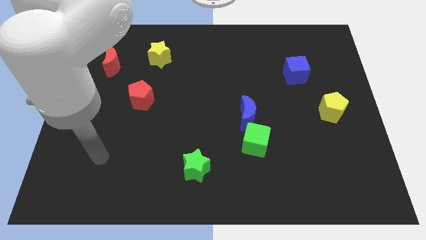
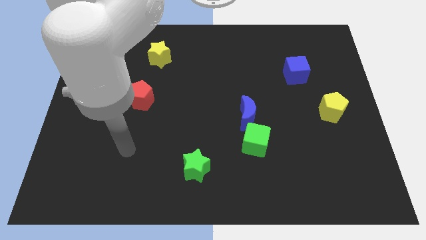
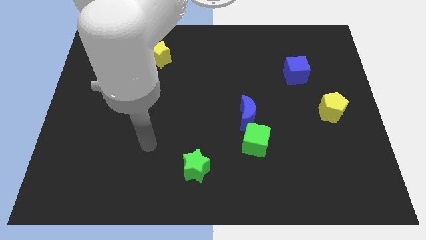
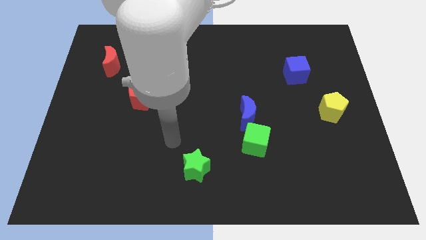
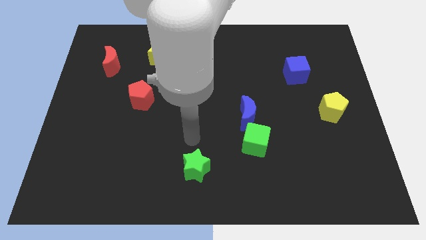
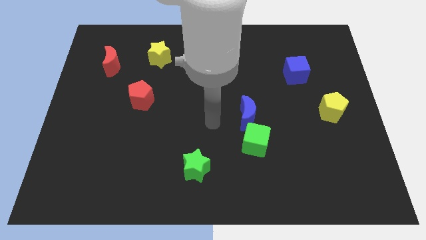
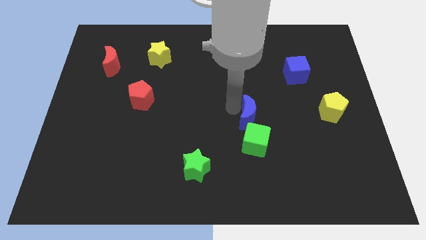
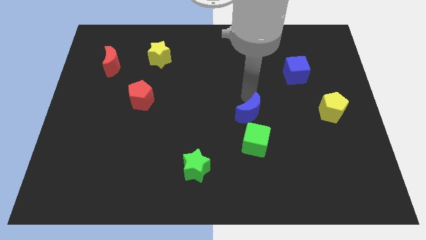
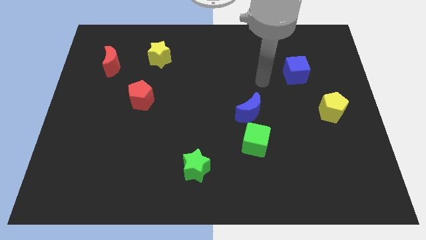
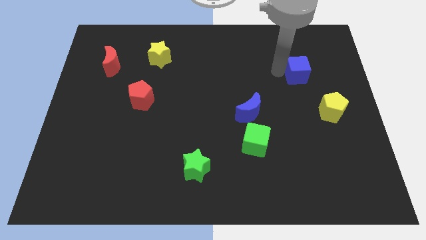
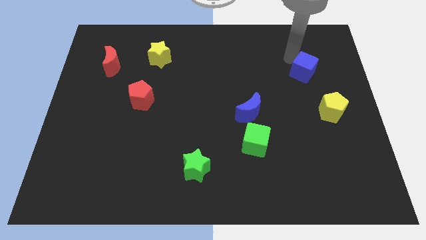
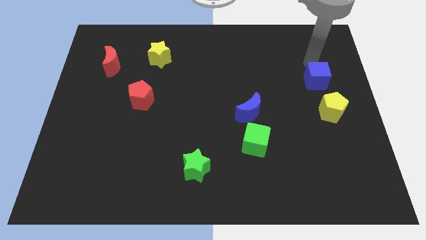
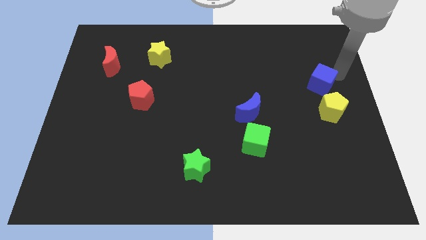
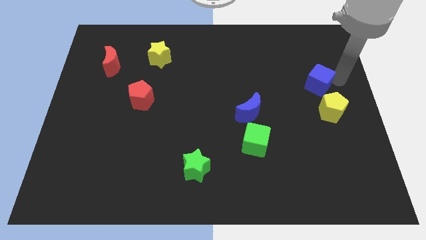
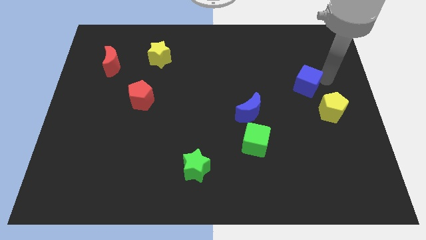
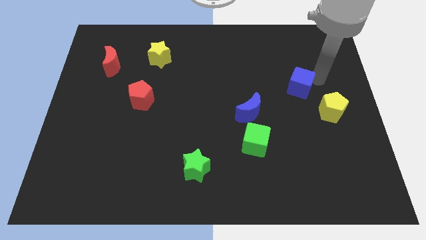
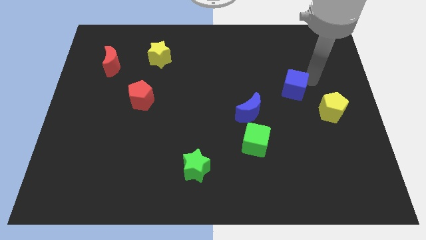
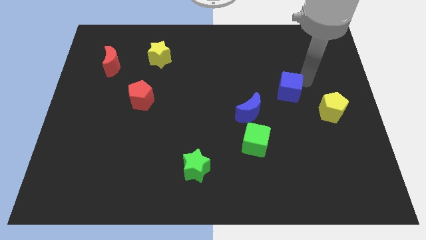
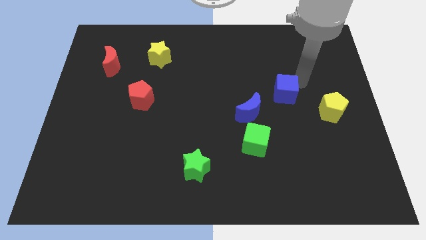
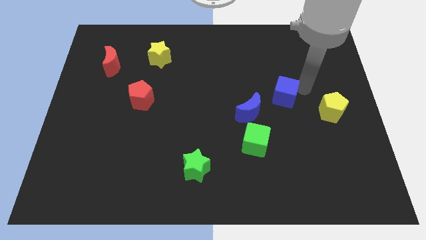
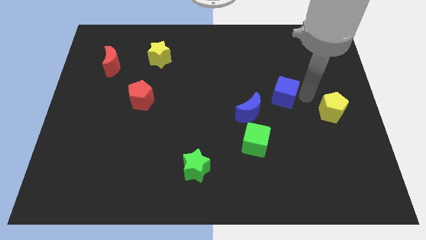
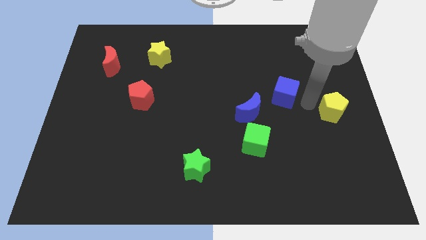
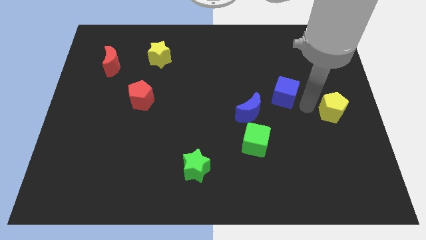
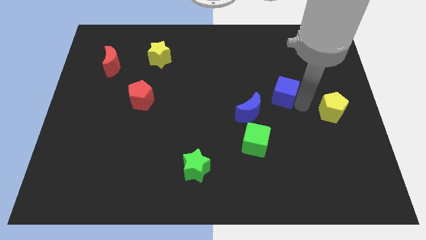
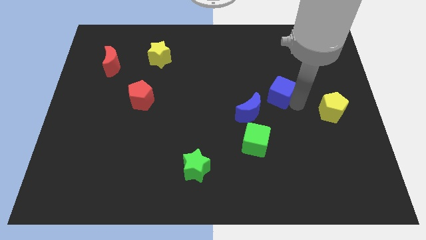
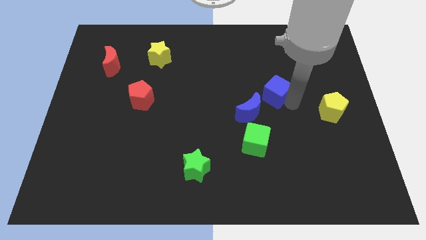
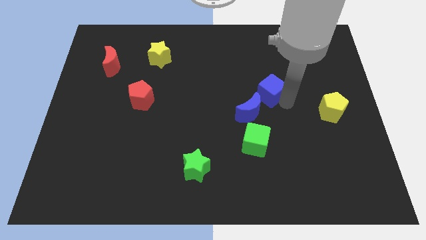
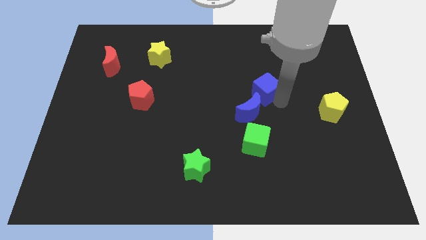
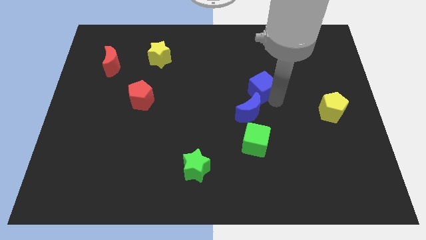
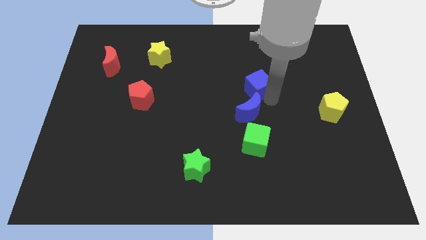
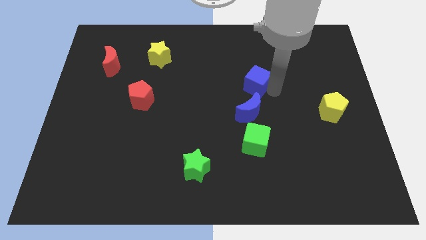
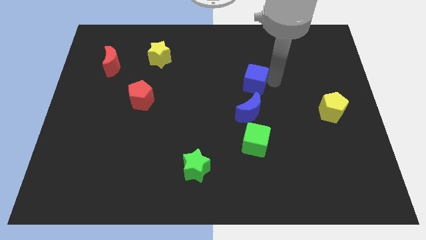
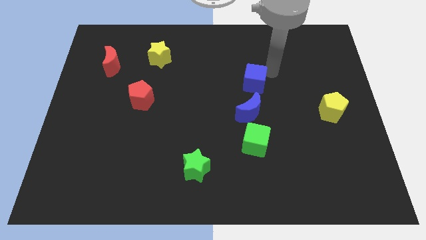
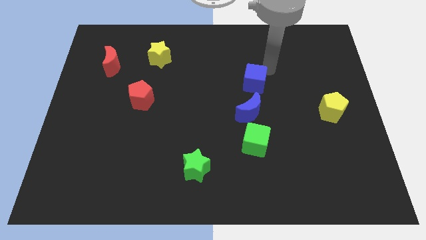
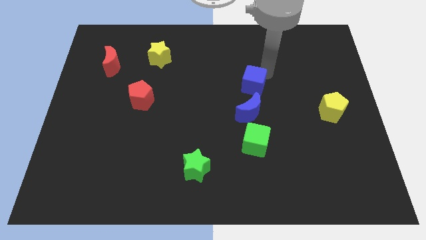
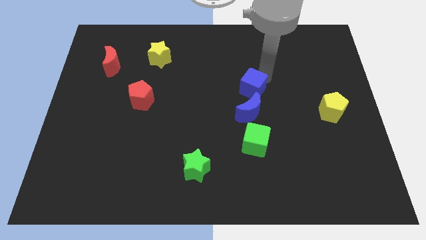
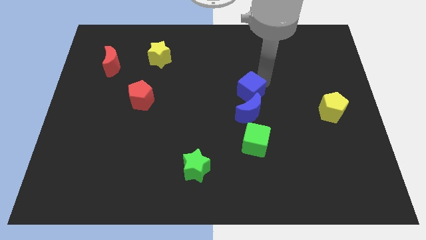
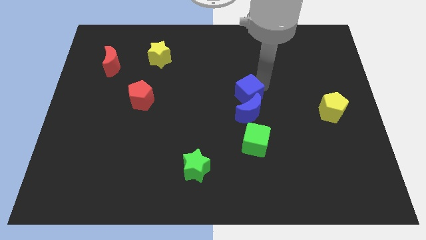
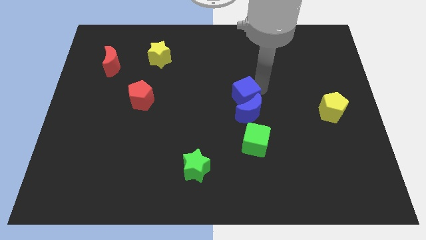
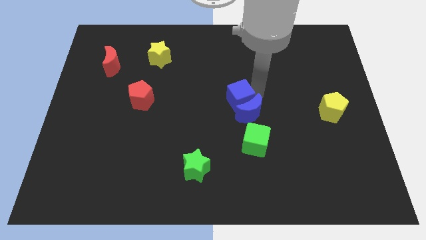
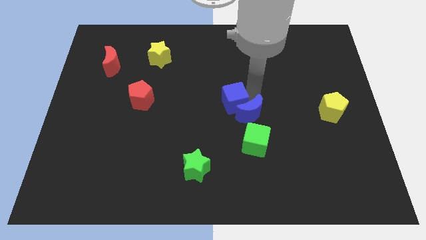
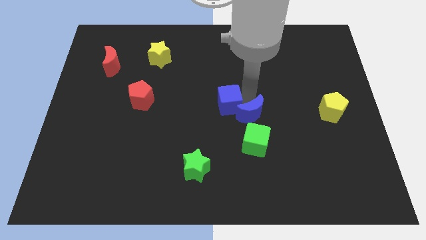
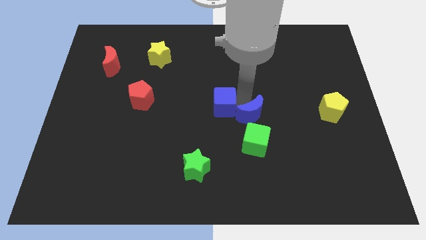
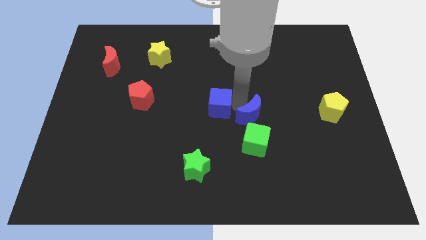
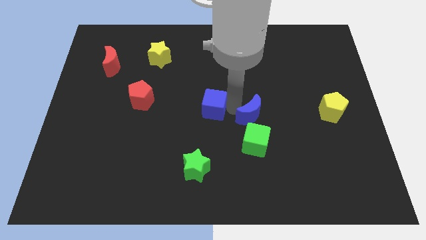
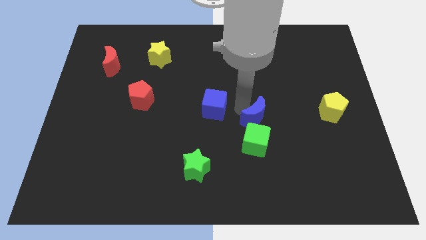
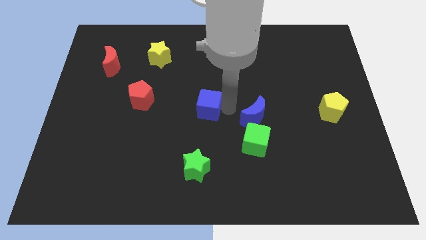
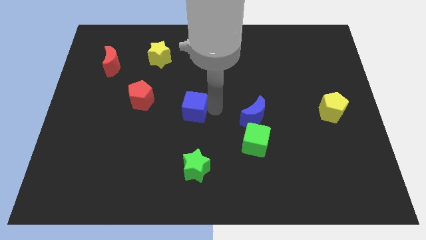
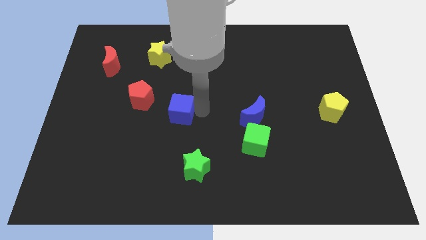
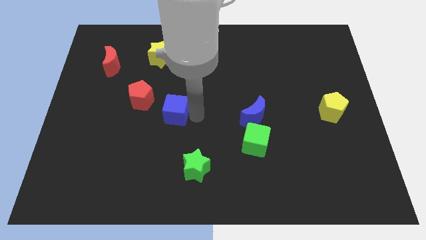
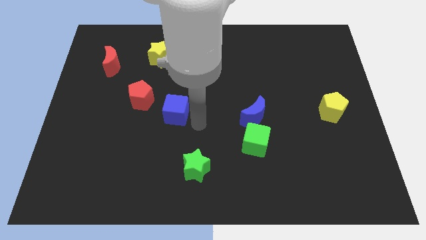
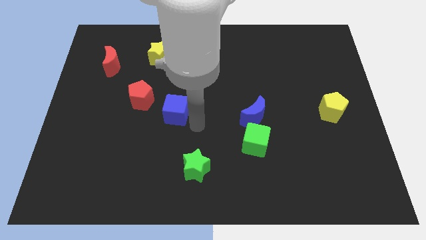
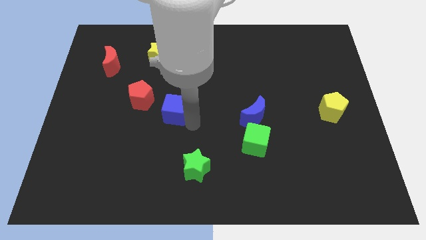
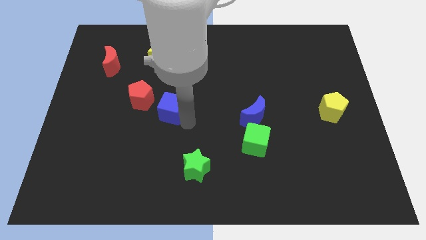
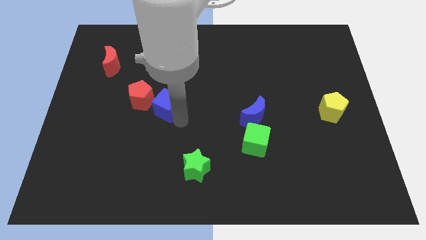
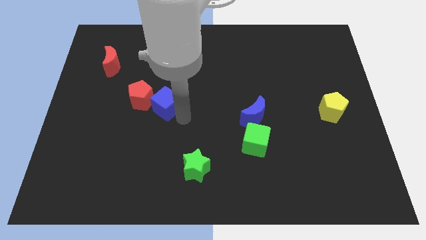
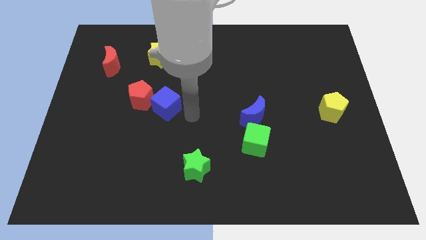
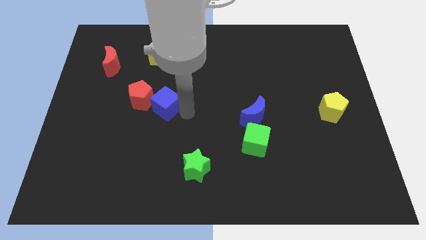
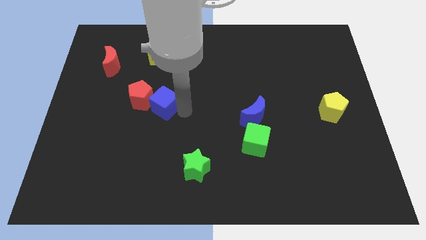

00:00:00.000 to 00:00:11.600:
push the blue cube close to the red pentagon

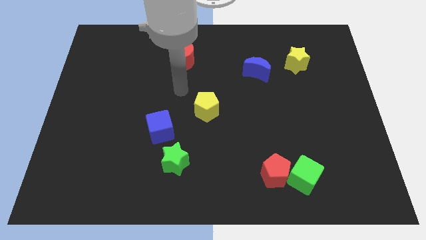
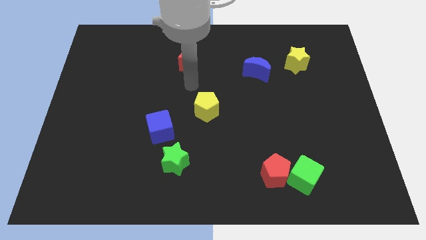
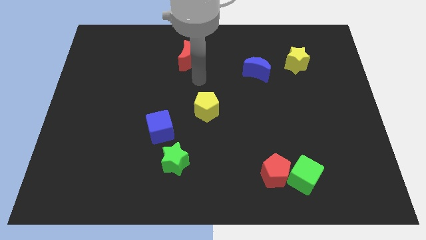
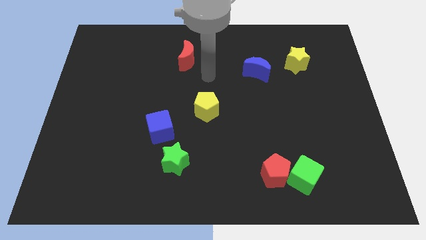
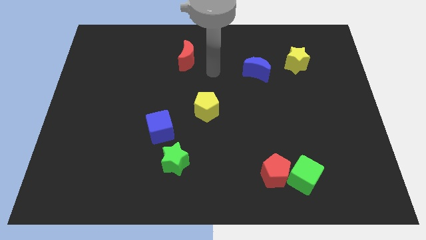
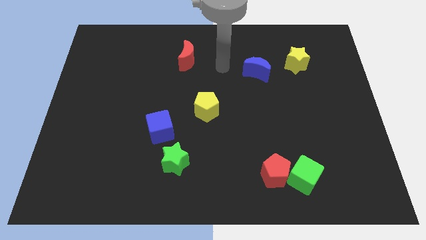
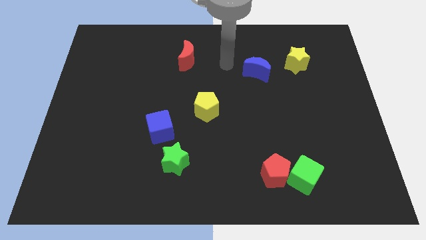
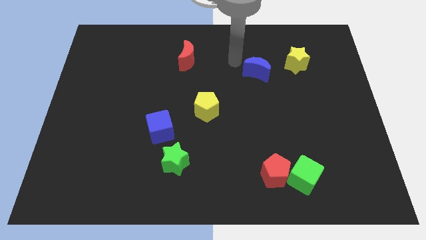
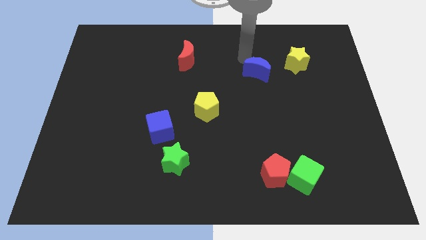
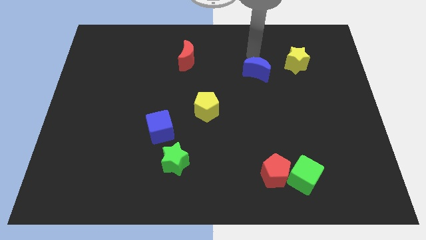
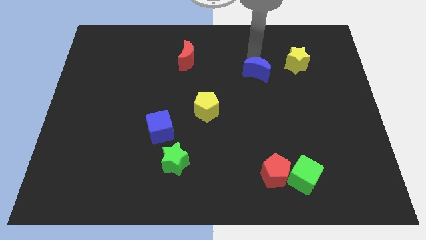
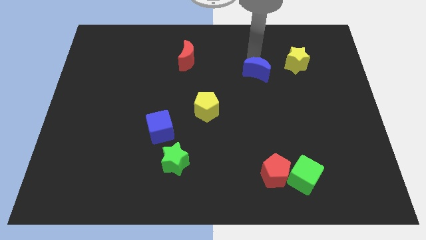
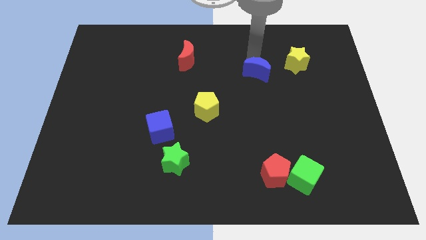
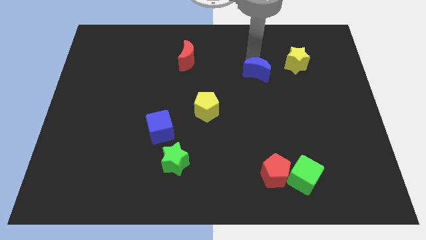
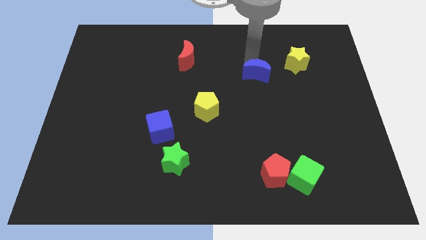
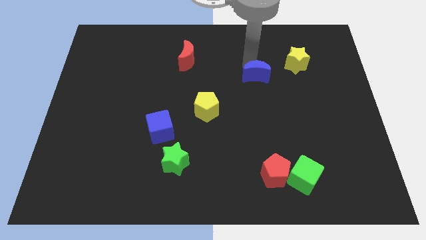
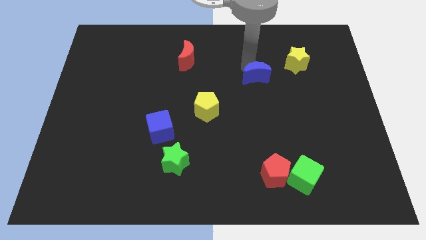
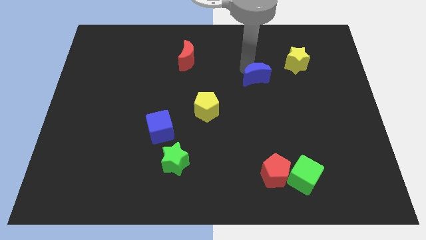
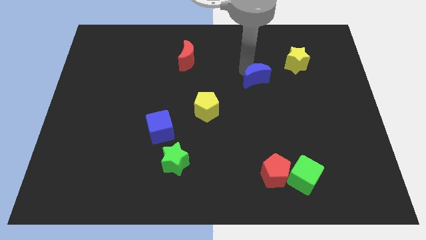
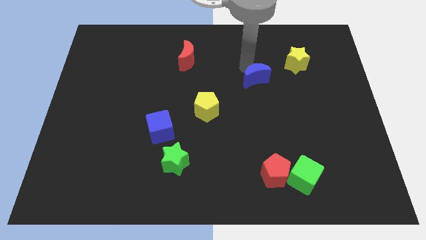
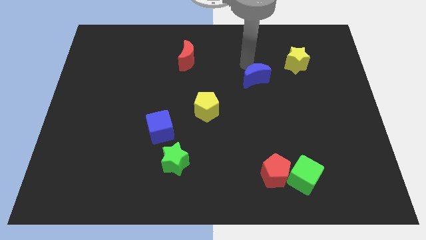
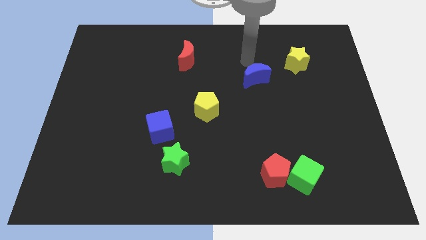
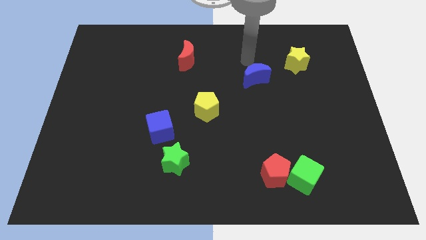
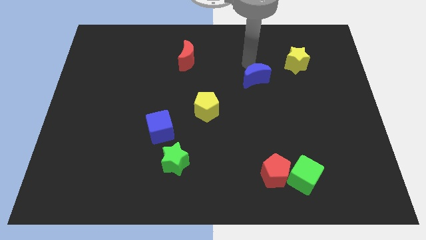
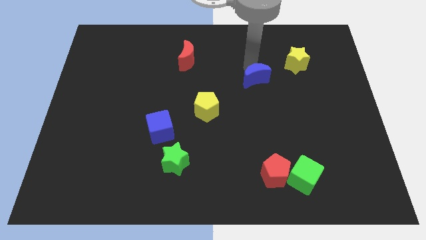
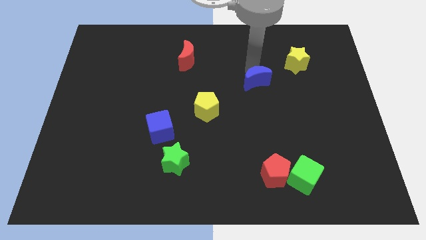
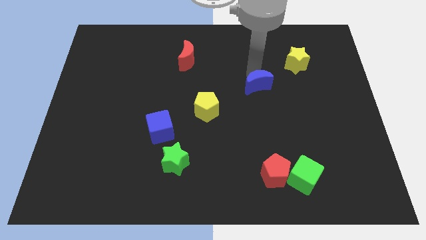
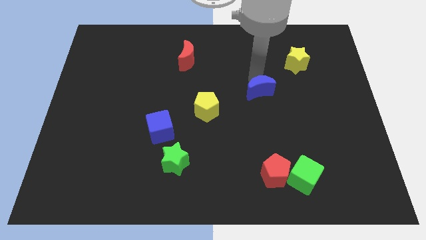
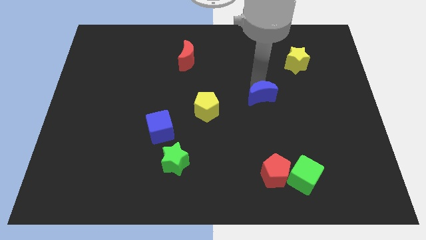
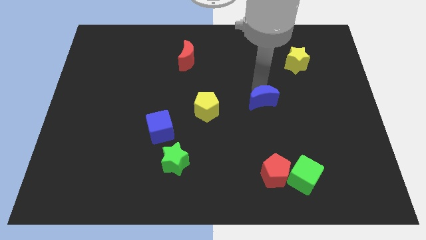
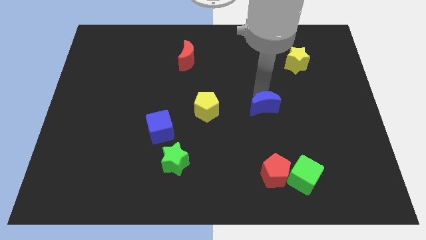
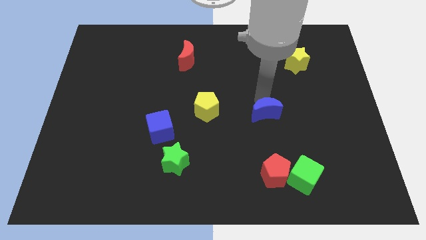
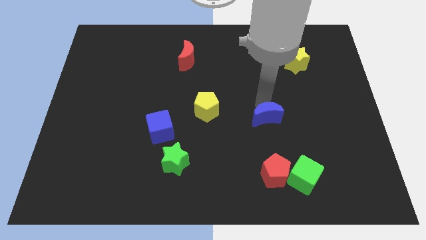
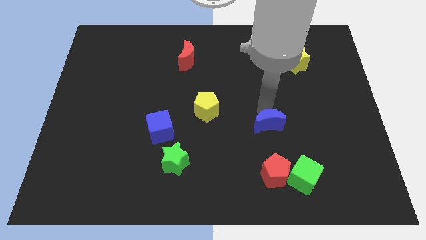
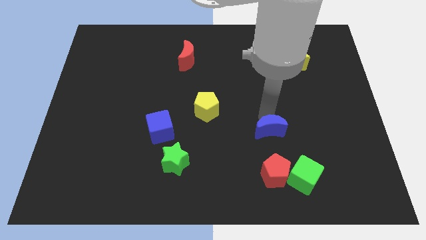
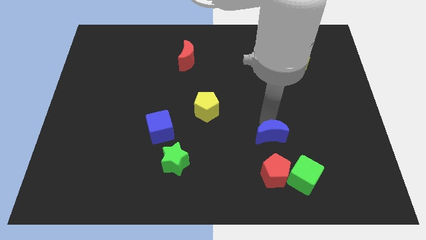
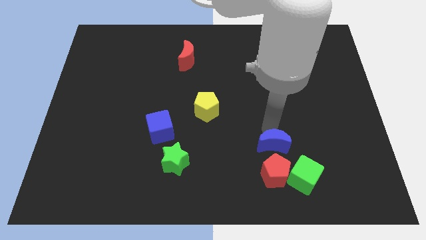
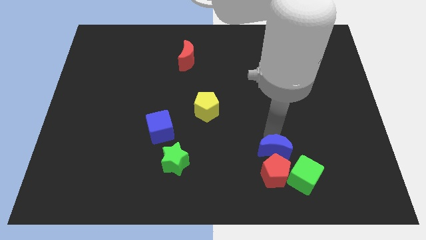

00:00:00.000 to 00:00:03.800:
push the blue moon close to the red pentagon
